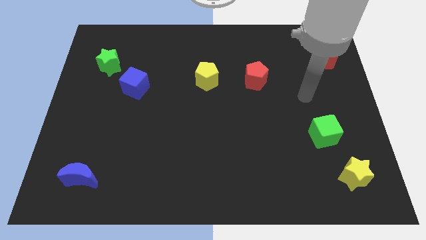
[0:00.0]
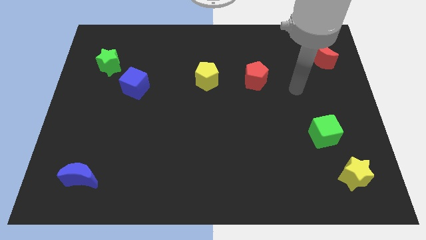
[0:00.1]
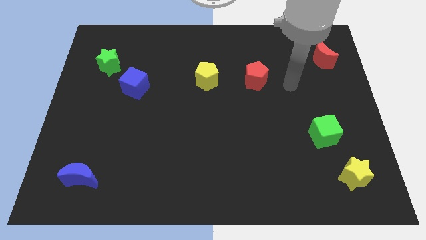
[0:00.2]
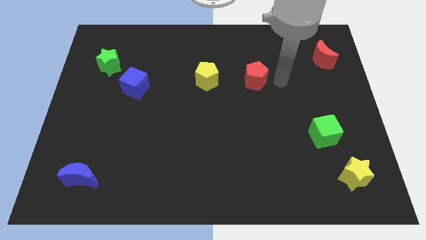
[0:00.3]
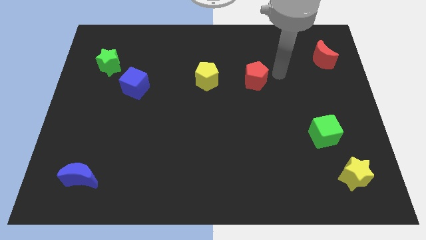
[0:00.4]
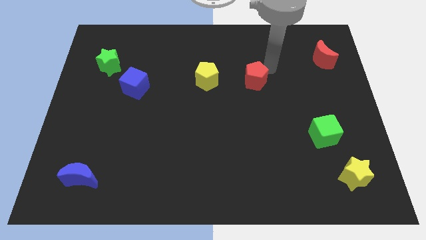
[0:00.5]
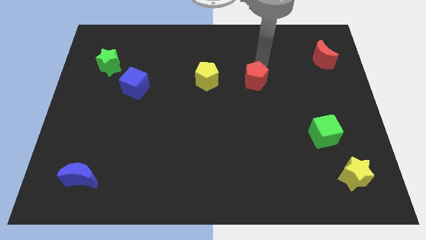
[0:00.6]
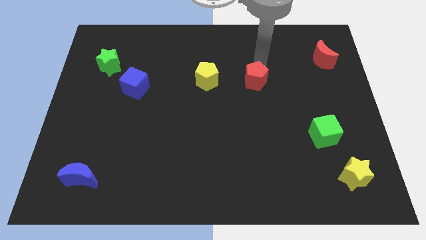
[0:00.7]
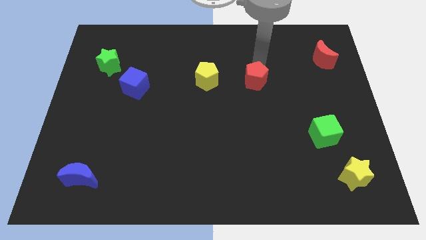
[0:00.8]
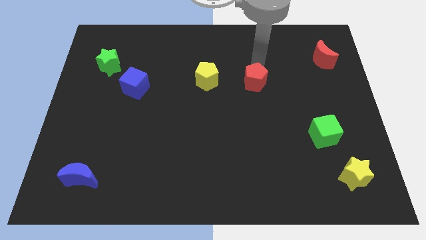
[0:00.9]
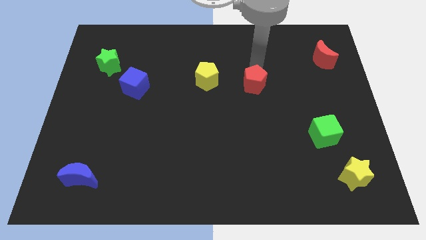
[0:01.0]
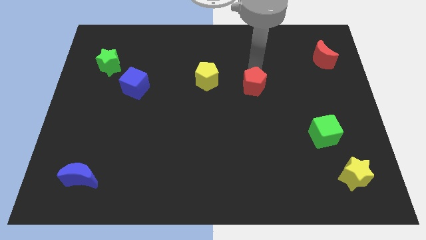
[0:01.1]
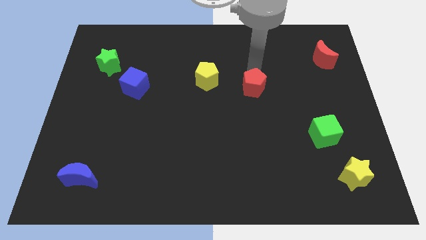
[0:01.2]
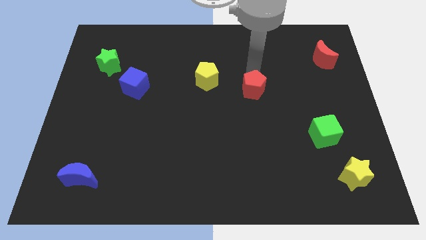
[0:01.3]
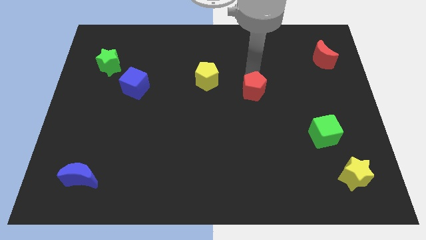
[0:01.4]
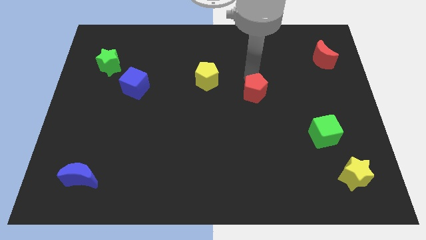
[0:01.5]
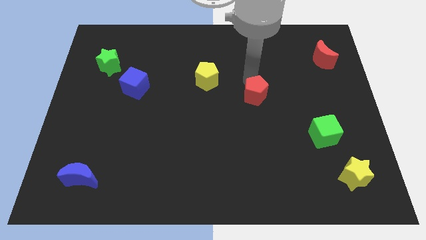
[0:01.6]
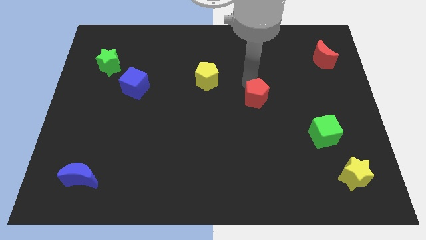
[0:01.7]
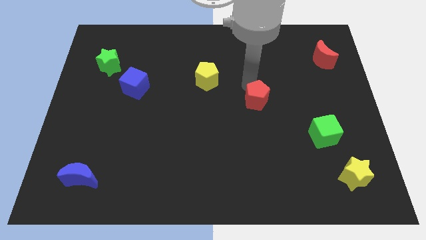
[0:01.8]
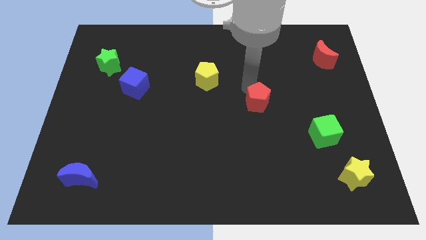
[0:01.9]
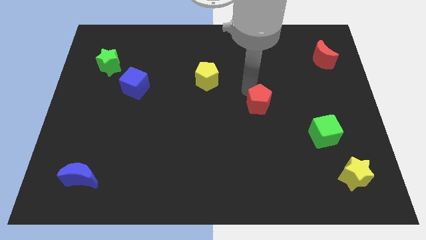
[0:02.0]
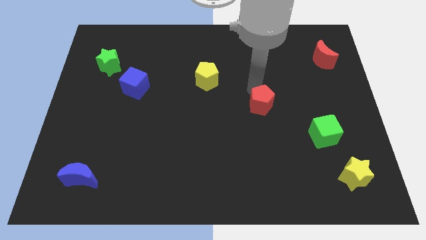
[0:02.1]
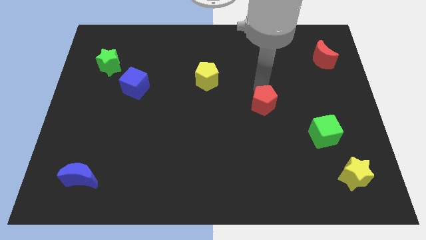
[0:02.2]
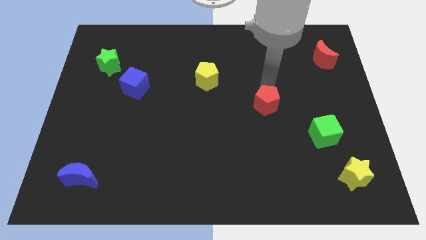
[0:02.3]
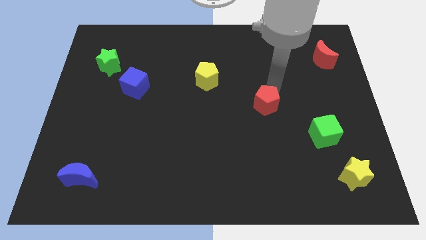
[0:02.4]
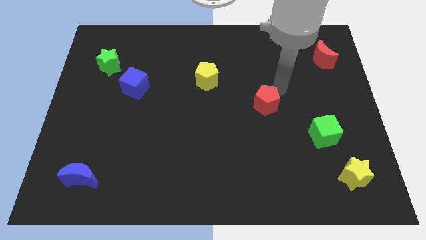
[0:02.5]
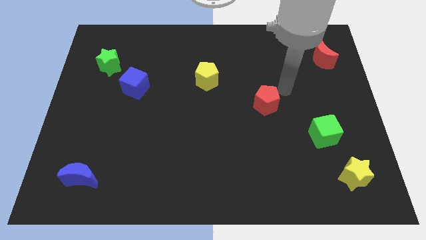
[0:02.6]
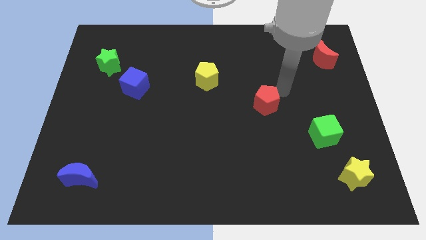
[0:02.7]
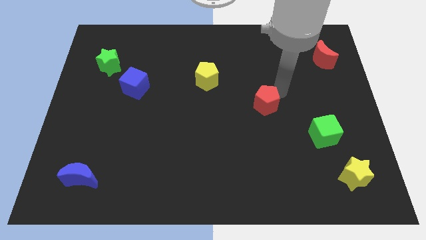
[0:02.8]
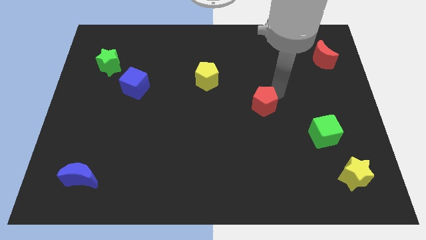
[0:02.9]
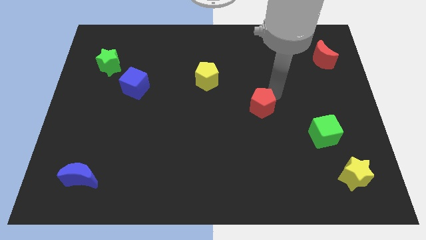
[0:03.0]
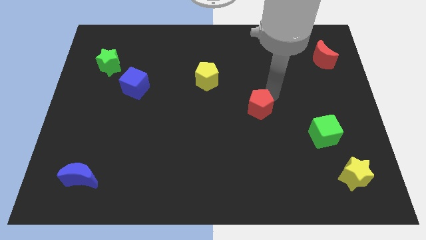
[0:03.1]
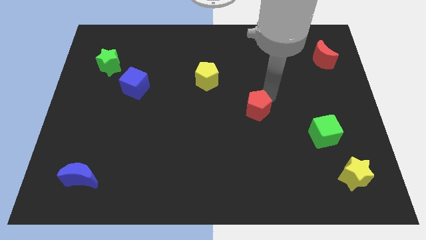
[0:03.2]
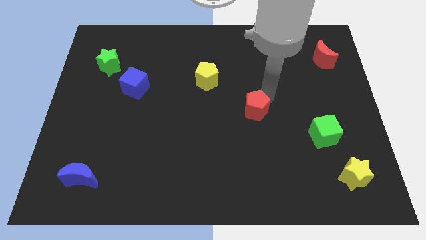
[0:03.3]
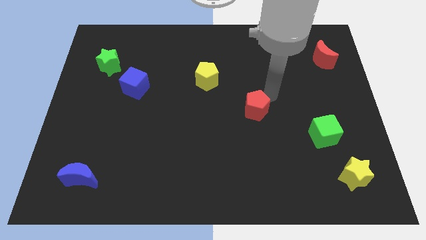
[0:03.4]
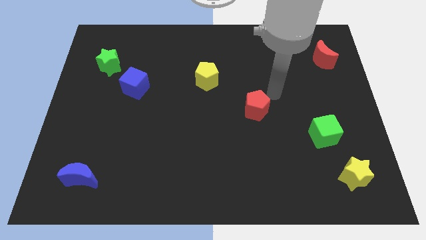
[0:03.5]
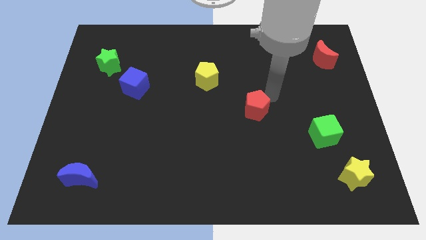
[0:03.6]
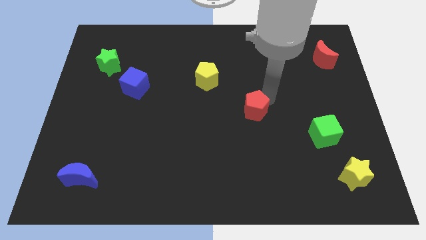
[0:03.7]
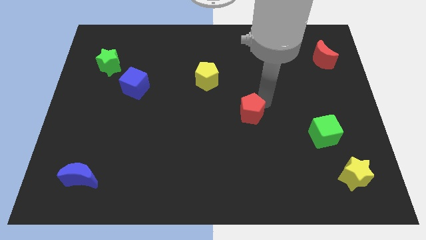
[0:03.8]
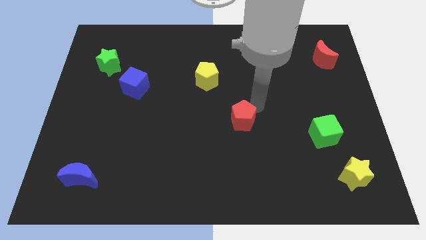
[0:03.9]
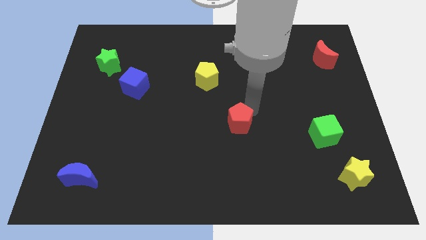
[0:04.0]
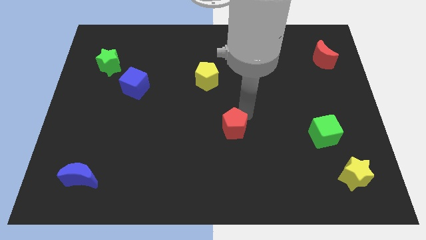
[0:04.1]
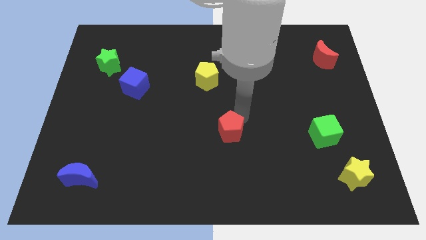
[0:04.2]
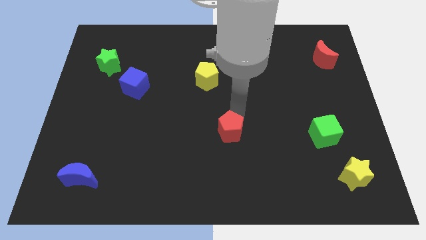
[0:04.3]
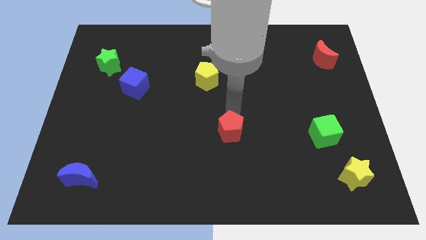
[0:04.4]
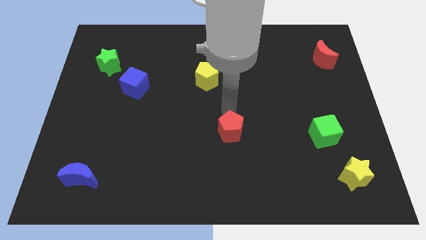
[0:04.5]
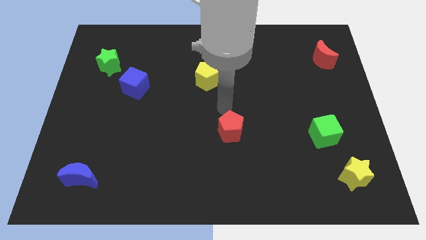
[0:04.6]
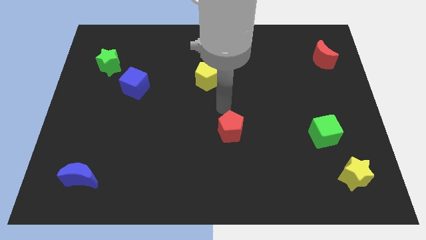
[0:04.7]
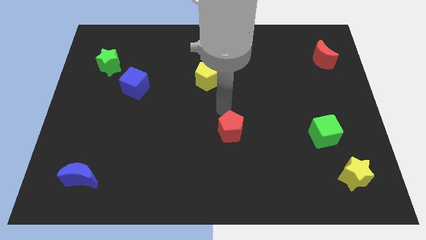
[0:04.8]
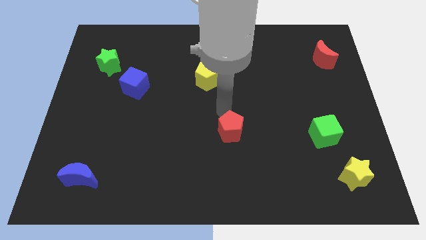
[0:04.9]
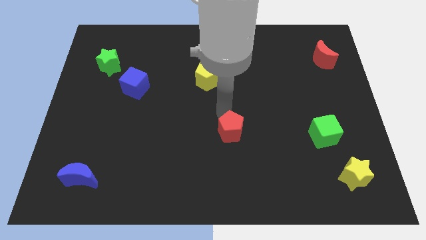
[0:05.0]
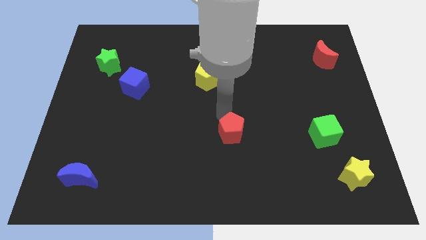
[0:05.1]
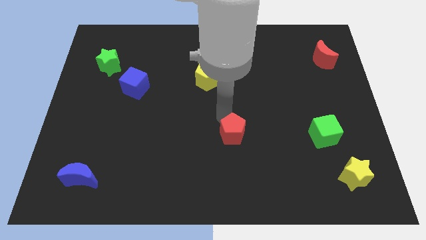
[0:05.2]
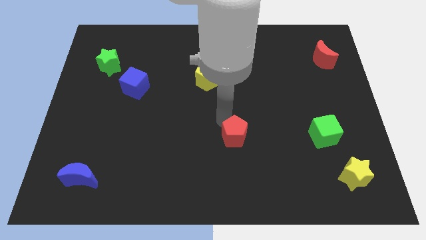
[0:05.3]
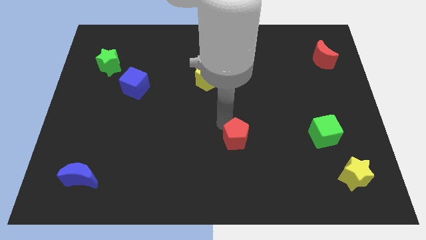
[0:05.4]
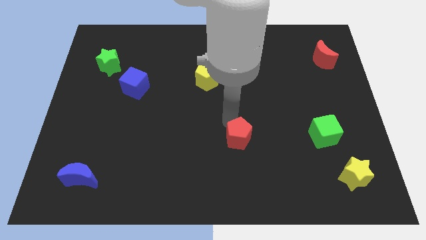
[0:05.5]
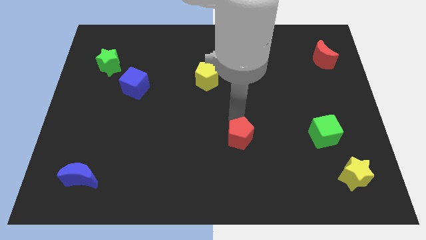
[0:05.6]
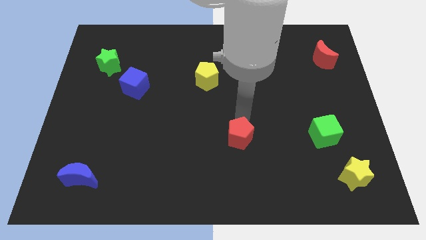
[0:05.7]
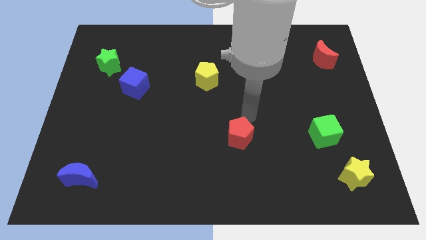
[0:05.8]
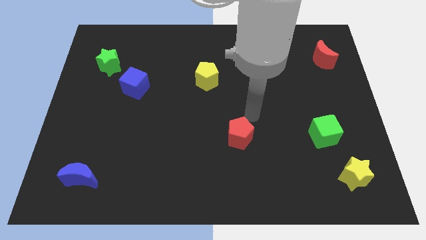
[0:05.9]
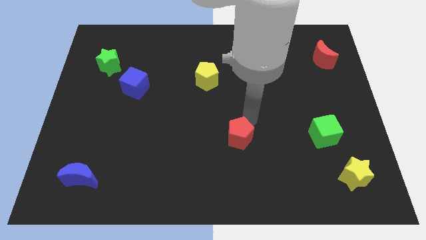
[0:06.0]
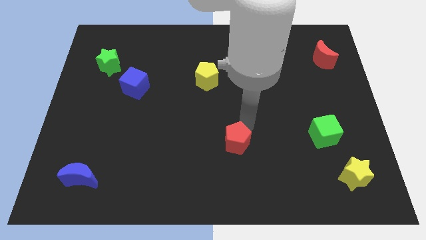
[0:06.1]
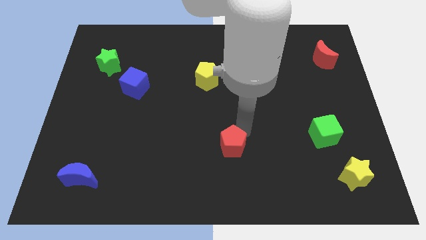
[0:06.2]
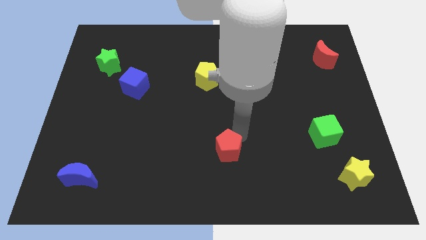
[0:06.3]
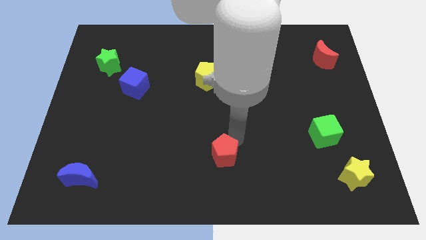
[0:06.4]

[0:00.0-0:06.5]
push the red pentagon to the bottom side
